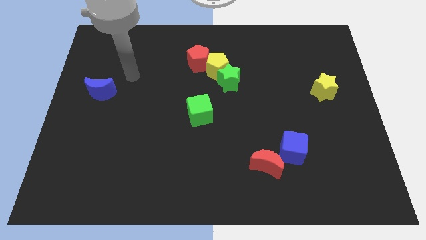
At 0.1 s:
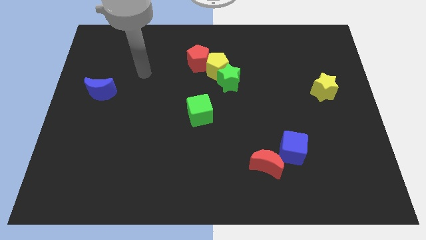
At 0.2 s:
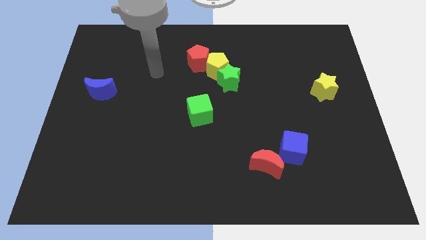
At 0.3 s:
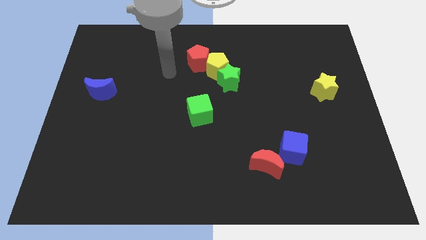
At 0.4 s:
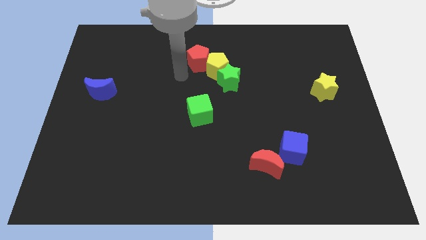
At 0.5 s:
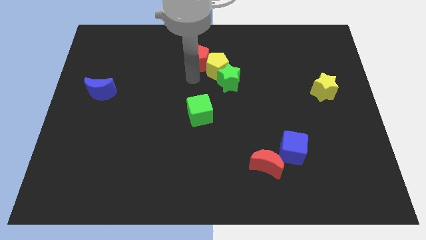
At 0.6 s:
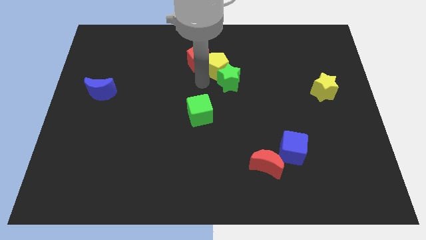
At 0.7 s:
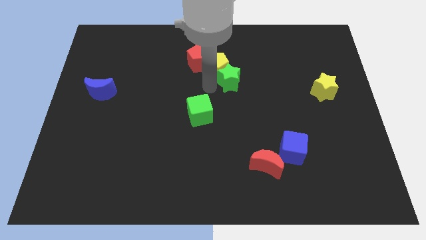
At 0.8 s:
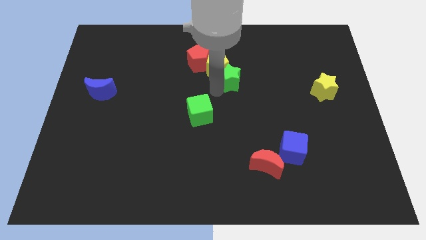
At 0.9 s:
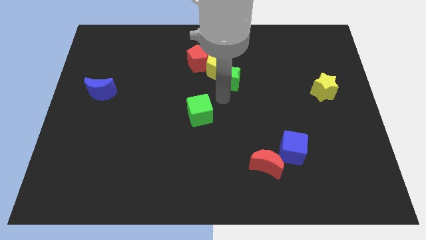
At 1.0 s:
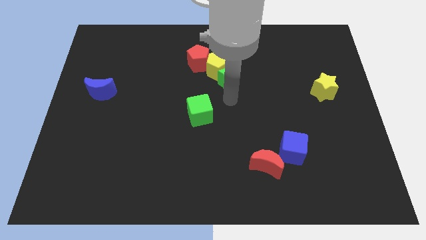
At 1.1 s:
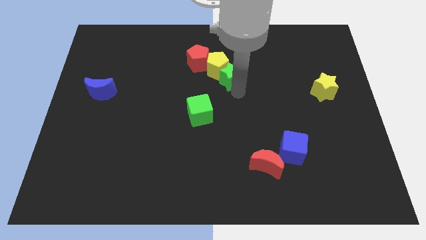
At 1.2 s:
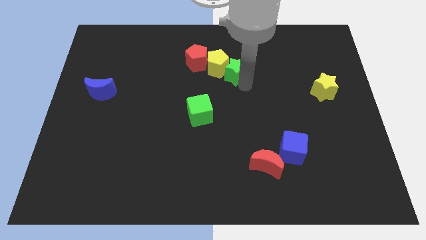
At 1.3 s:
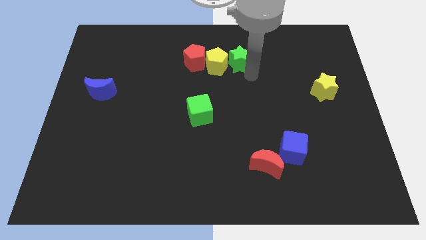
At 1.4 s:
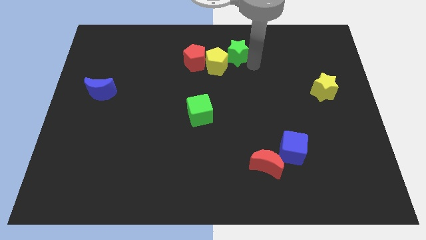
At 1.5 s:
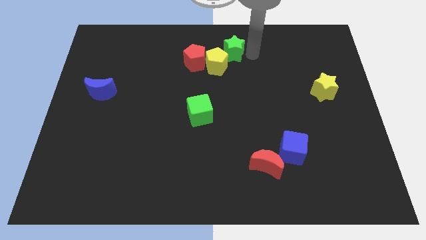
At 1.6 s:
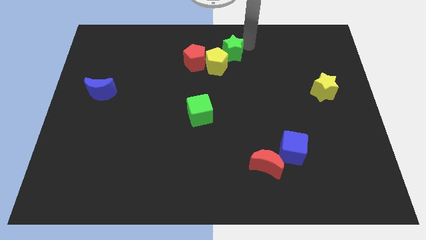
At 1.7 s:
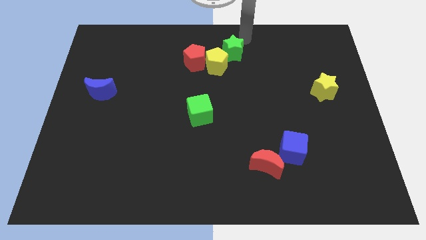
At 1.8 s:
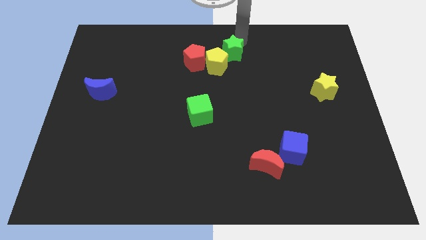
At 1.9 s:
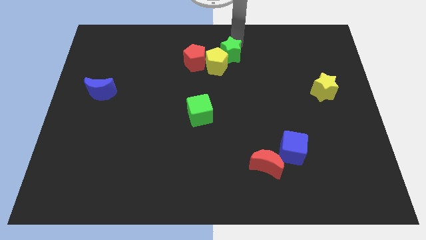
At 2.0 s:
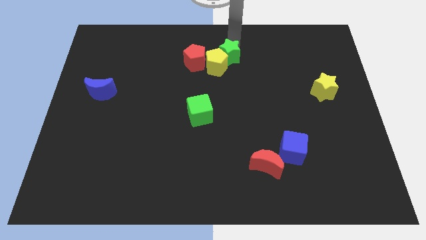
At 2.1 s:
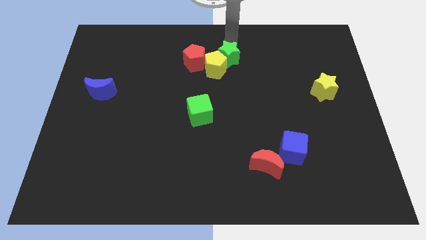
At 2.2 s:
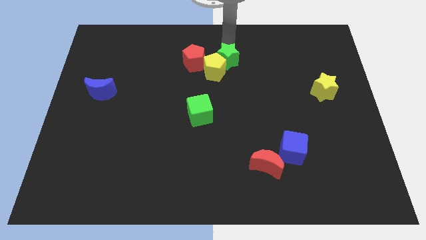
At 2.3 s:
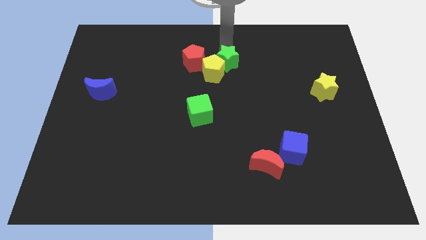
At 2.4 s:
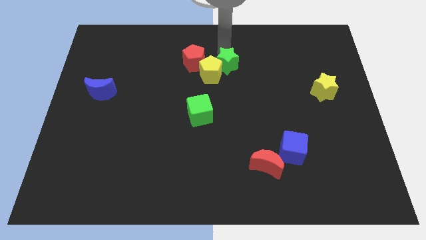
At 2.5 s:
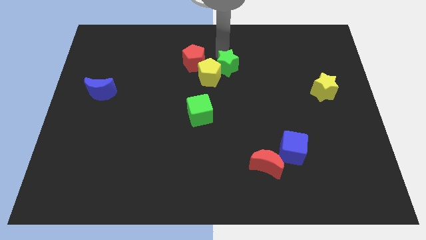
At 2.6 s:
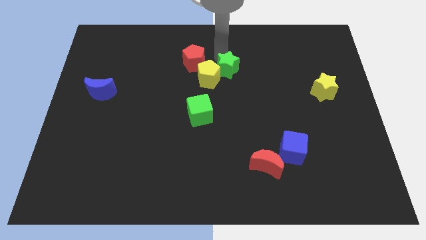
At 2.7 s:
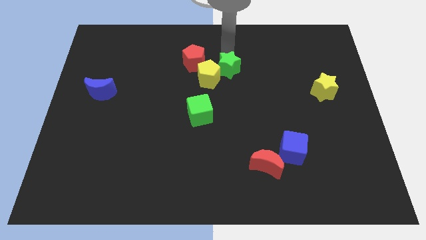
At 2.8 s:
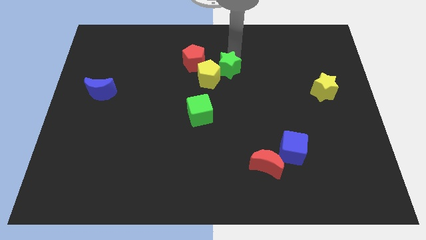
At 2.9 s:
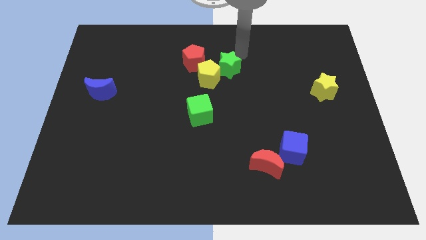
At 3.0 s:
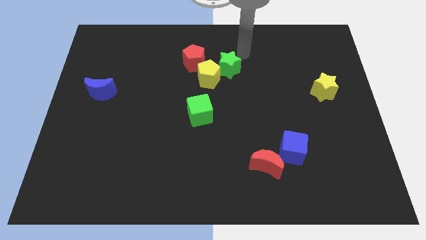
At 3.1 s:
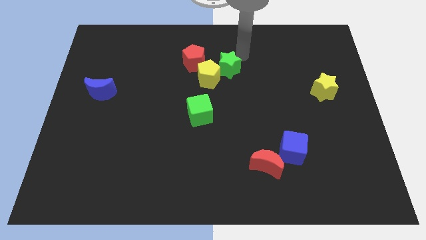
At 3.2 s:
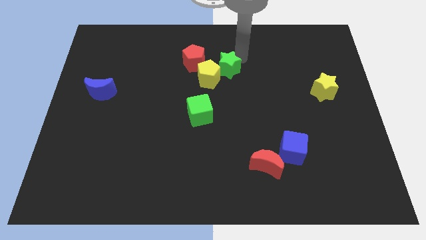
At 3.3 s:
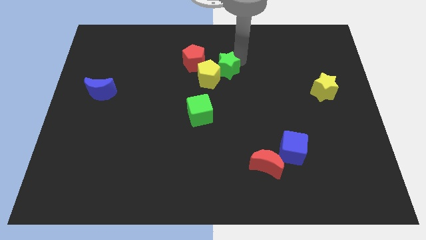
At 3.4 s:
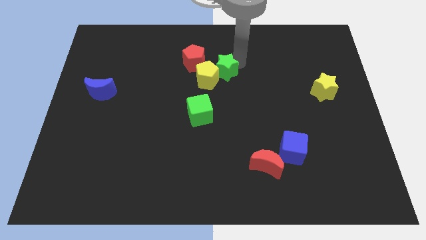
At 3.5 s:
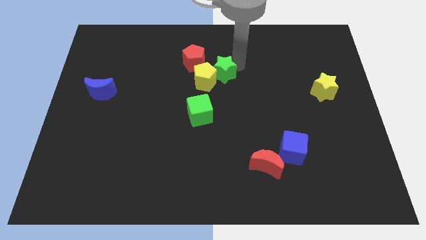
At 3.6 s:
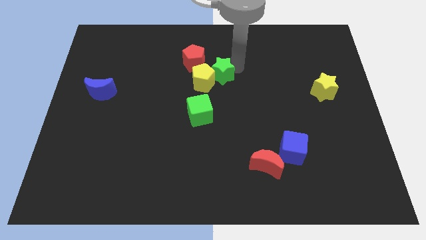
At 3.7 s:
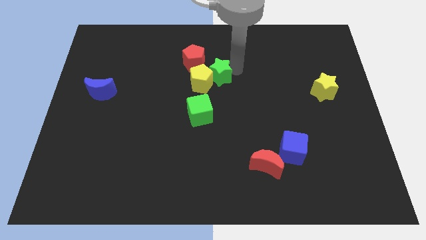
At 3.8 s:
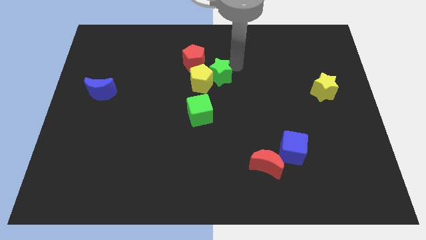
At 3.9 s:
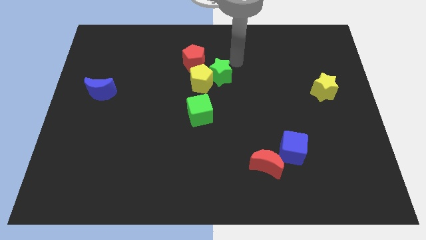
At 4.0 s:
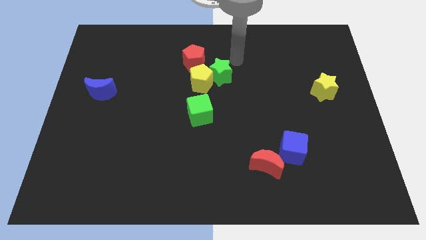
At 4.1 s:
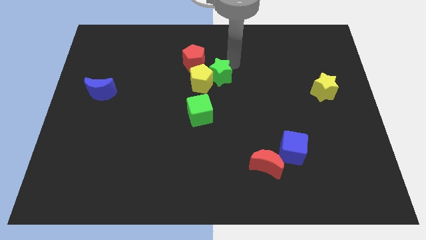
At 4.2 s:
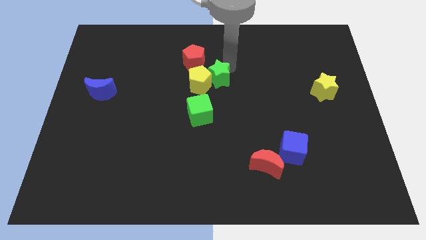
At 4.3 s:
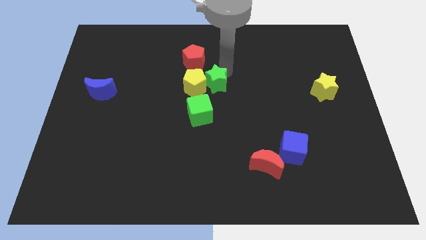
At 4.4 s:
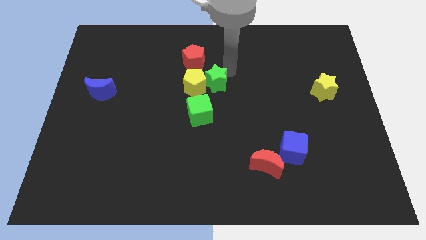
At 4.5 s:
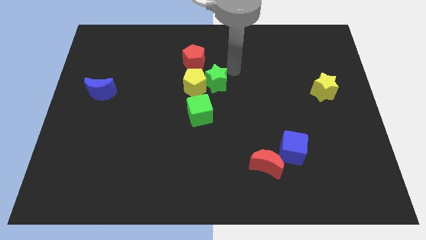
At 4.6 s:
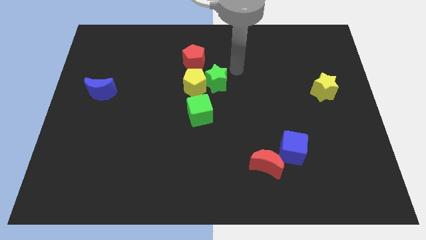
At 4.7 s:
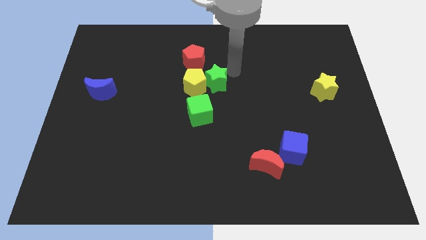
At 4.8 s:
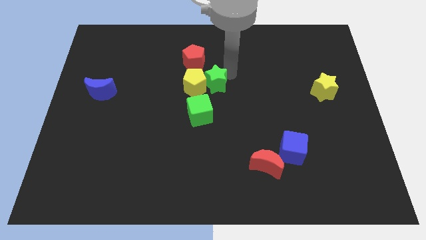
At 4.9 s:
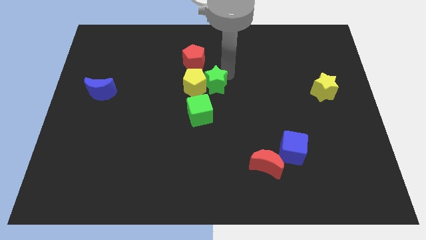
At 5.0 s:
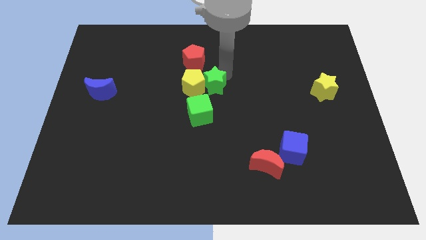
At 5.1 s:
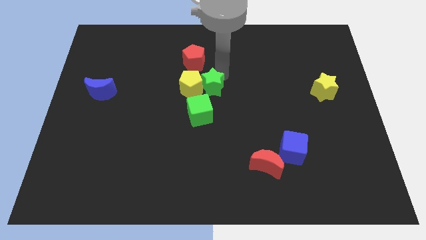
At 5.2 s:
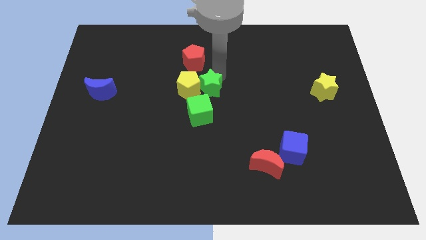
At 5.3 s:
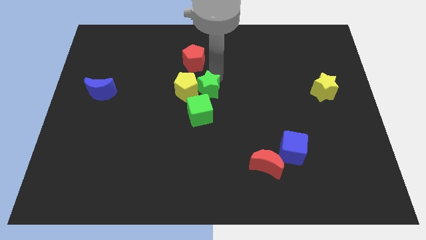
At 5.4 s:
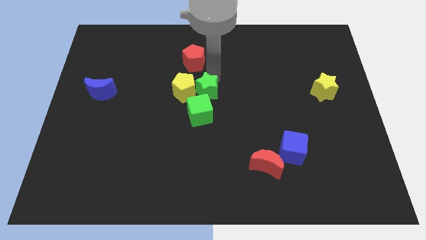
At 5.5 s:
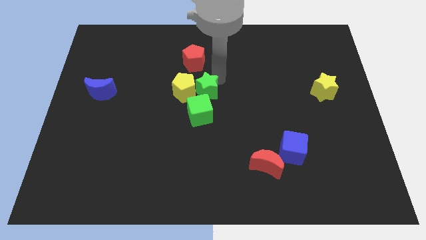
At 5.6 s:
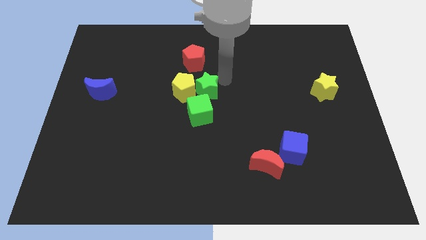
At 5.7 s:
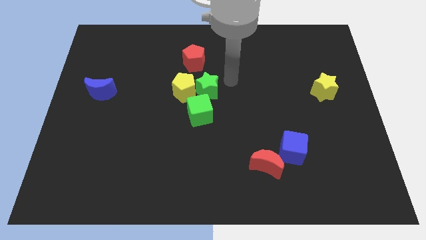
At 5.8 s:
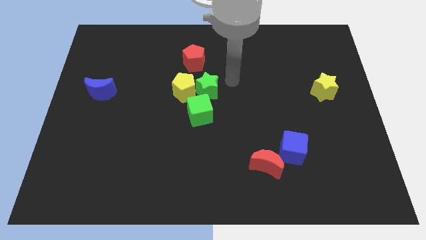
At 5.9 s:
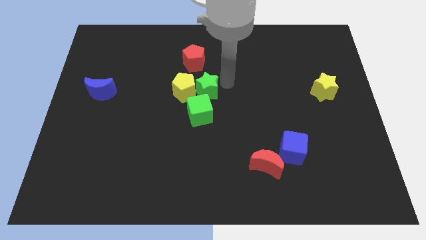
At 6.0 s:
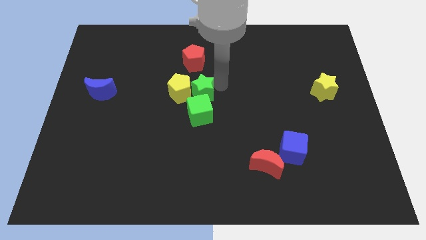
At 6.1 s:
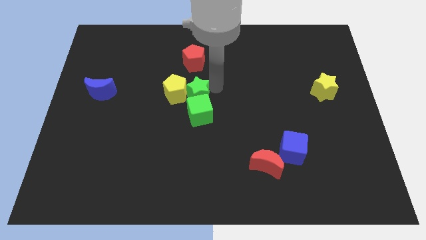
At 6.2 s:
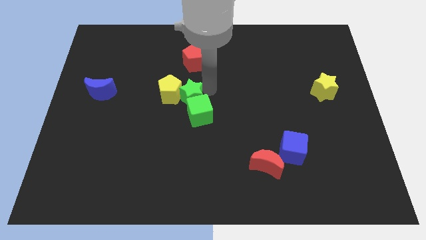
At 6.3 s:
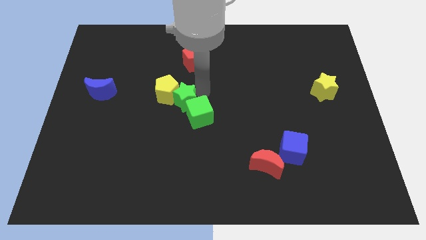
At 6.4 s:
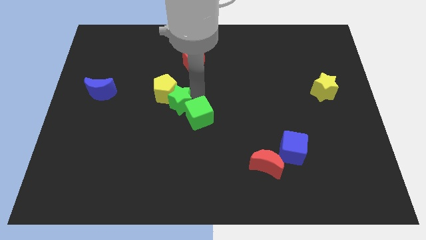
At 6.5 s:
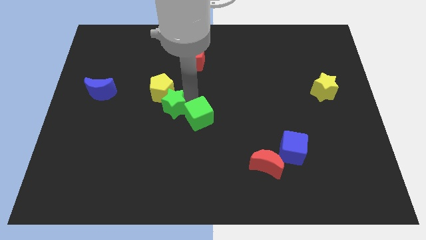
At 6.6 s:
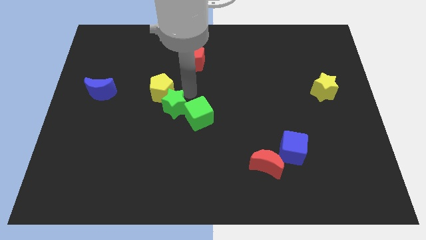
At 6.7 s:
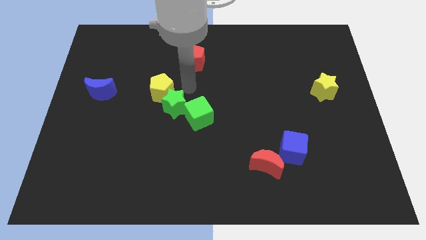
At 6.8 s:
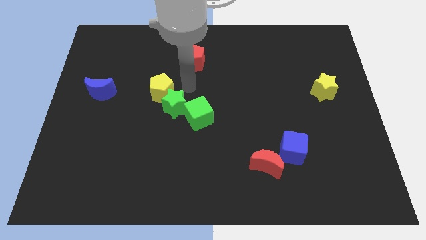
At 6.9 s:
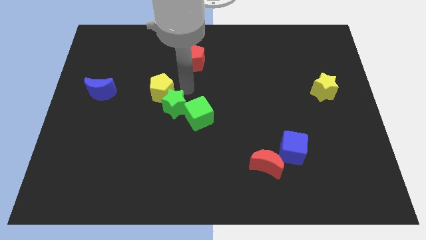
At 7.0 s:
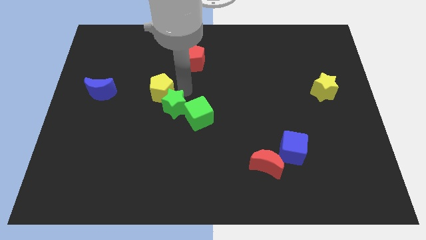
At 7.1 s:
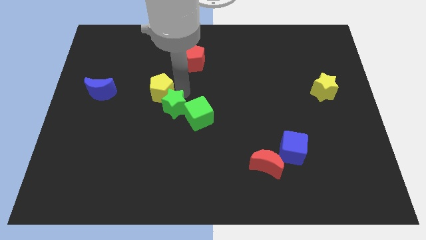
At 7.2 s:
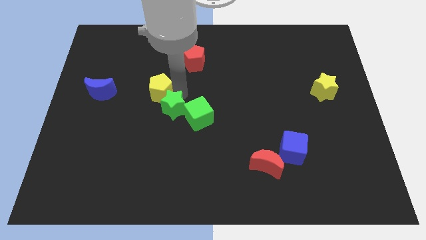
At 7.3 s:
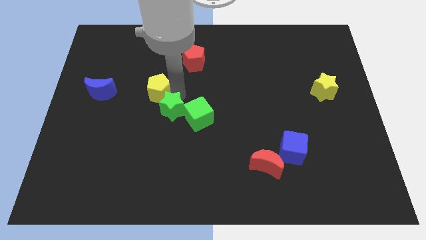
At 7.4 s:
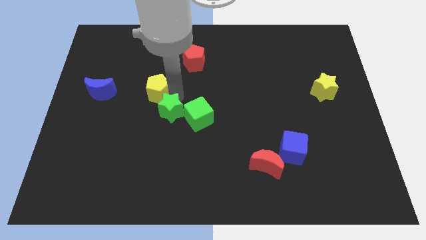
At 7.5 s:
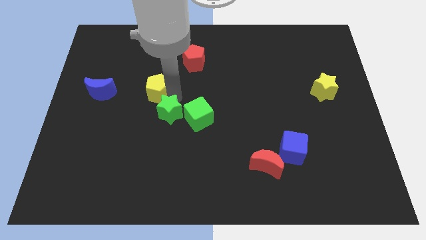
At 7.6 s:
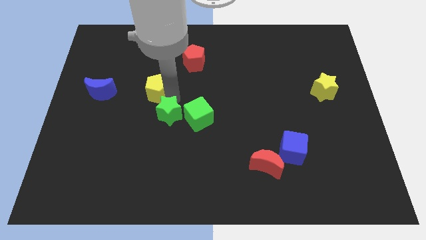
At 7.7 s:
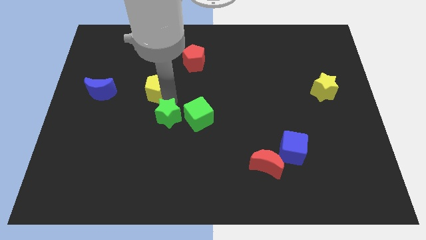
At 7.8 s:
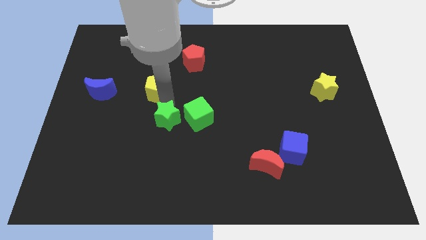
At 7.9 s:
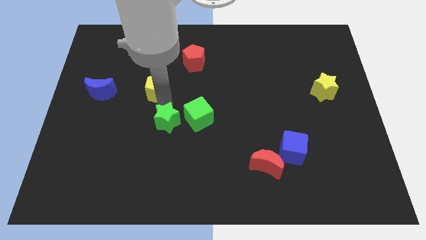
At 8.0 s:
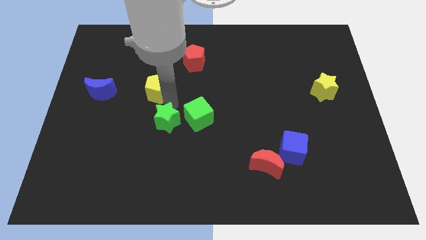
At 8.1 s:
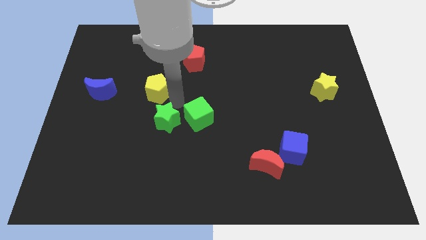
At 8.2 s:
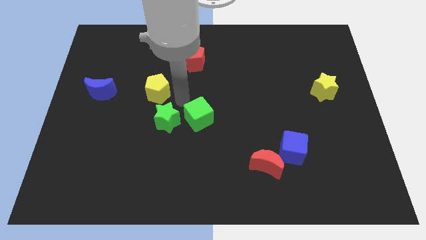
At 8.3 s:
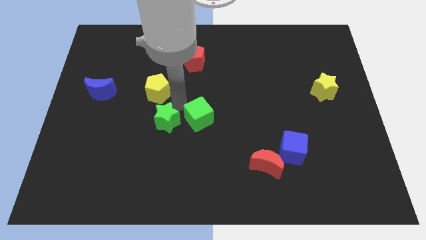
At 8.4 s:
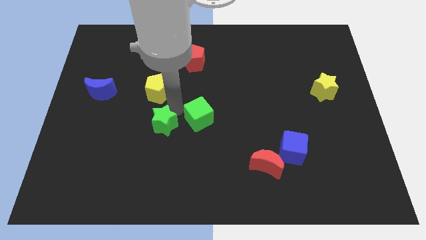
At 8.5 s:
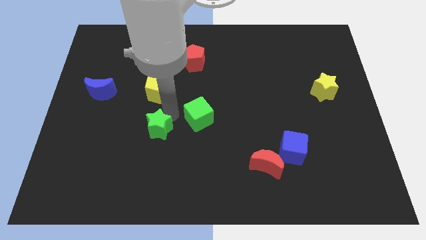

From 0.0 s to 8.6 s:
move the green star diagonally downwards and left
